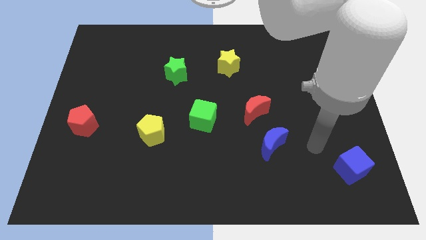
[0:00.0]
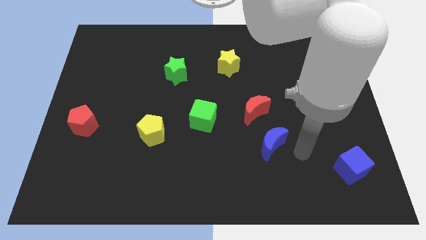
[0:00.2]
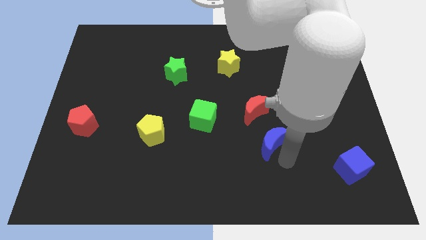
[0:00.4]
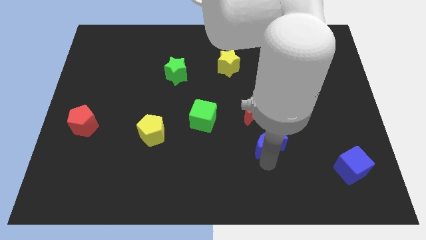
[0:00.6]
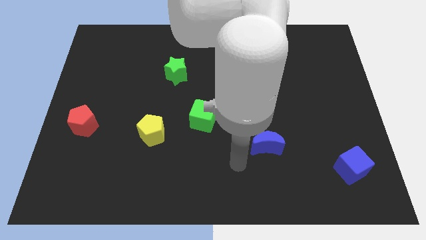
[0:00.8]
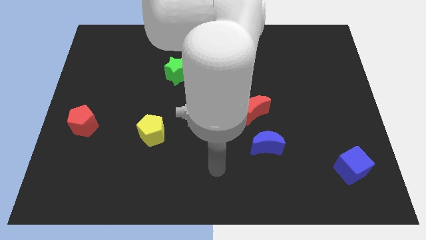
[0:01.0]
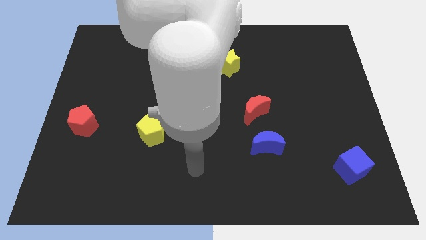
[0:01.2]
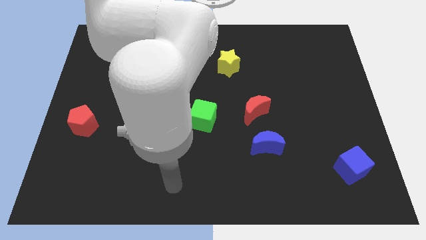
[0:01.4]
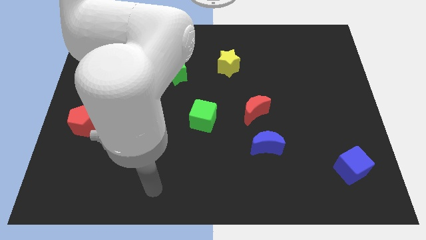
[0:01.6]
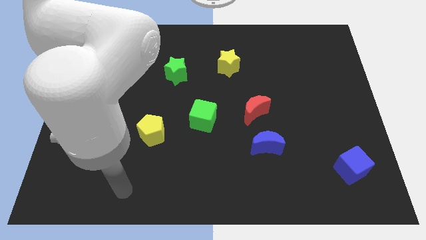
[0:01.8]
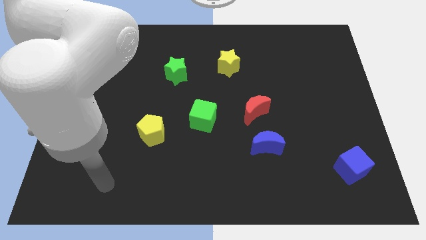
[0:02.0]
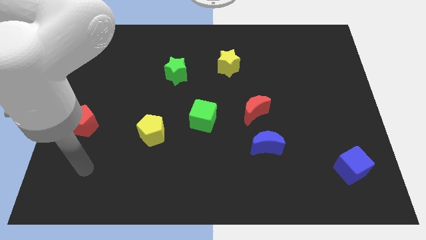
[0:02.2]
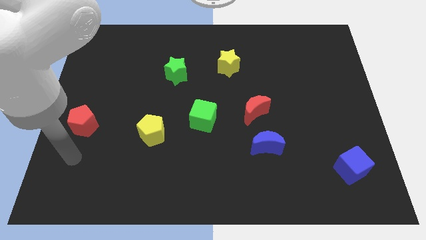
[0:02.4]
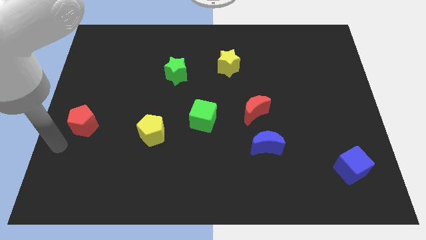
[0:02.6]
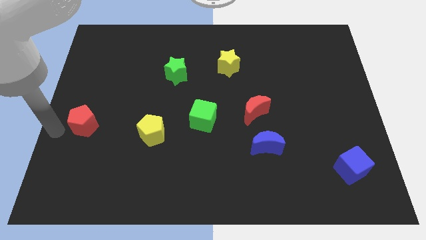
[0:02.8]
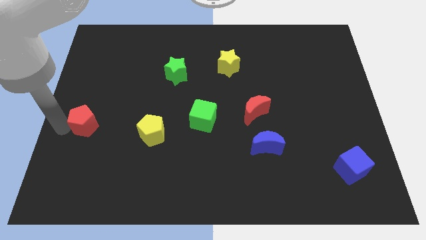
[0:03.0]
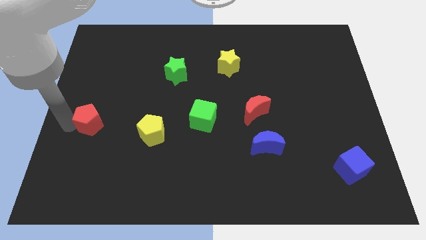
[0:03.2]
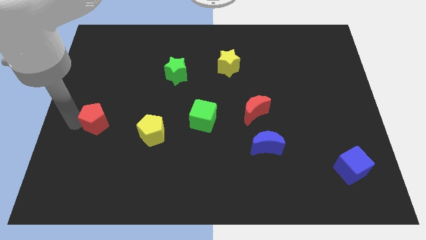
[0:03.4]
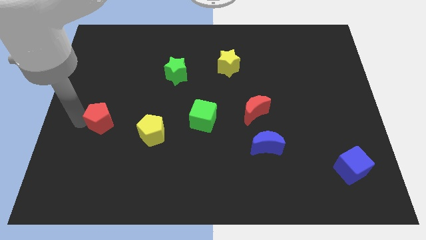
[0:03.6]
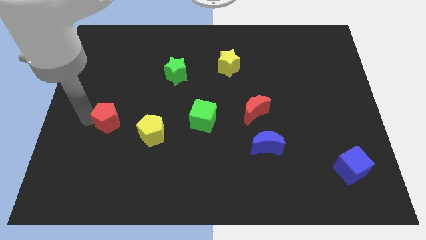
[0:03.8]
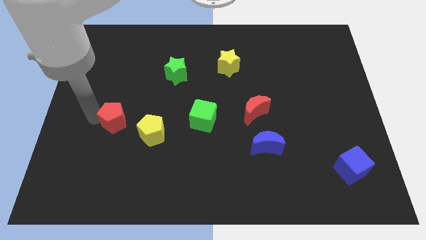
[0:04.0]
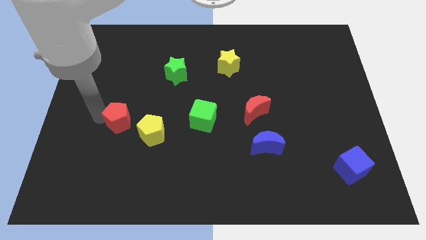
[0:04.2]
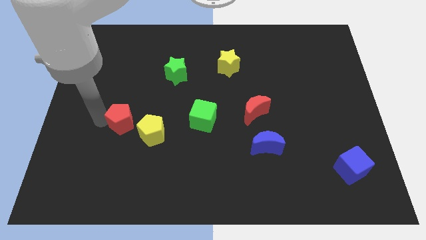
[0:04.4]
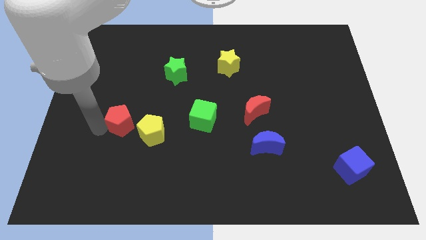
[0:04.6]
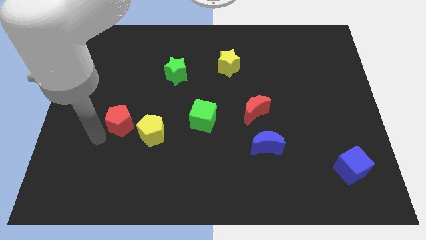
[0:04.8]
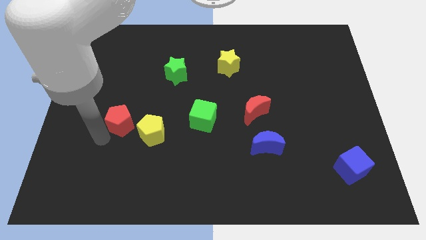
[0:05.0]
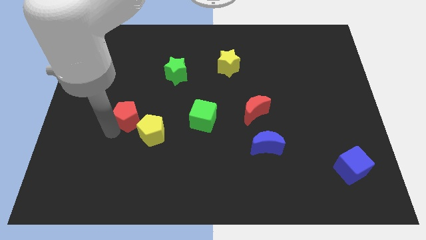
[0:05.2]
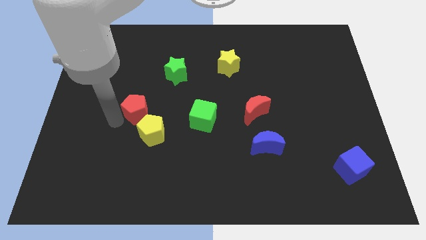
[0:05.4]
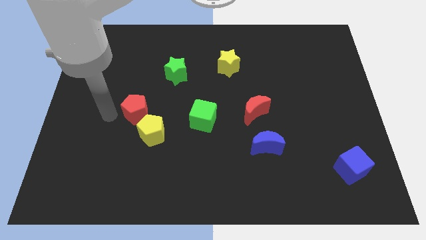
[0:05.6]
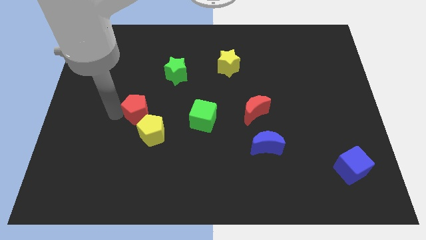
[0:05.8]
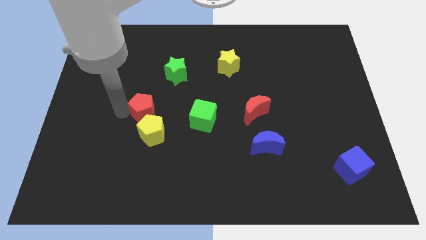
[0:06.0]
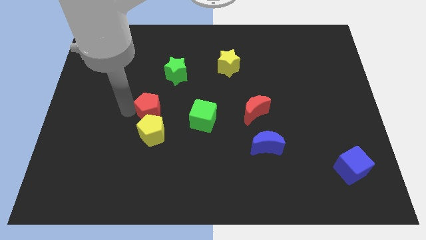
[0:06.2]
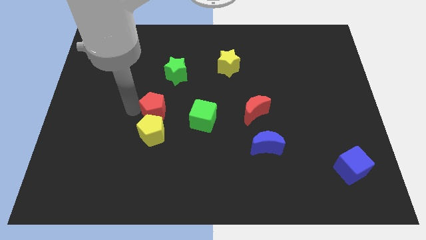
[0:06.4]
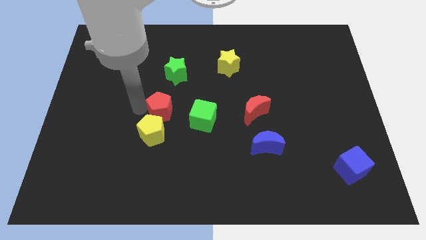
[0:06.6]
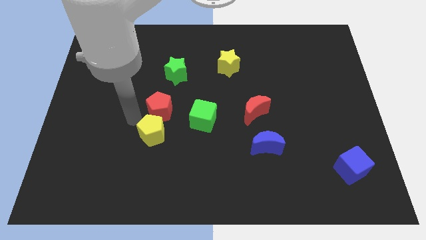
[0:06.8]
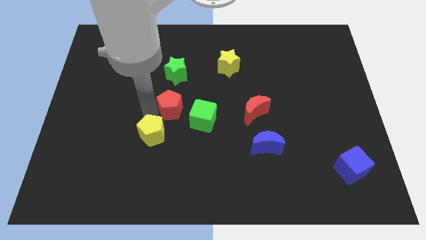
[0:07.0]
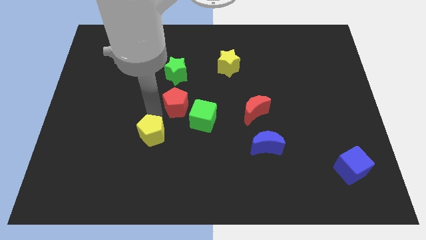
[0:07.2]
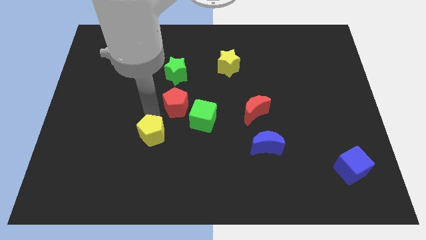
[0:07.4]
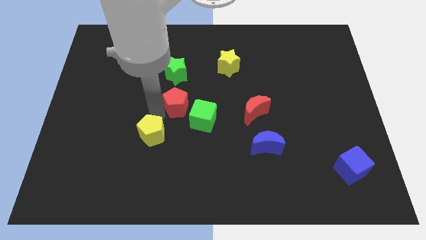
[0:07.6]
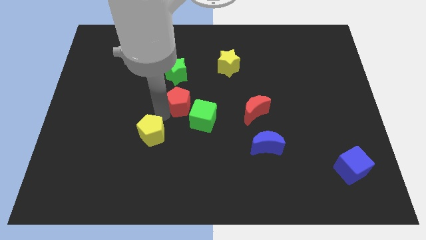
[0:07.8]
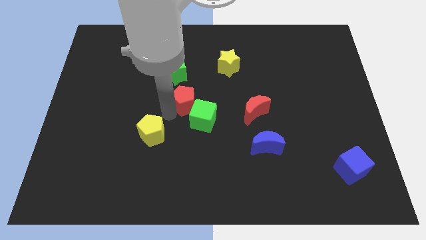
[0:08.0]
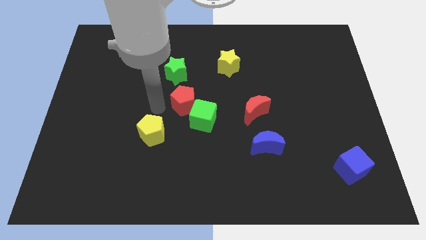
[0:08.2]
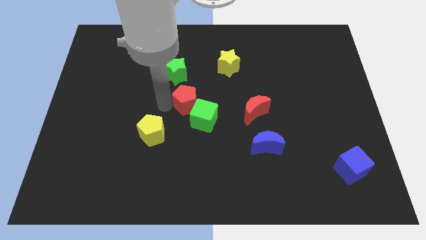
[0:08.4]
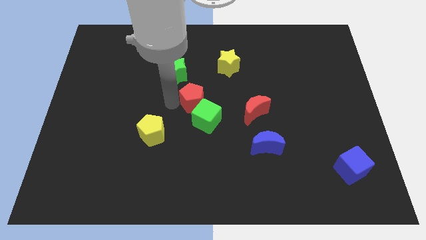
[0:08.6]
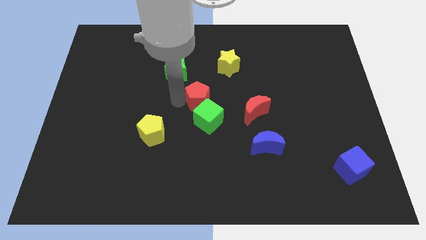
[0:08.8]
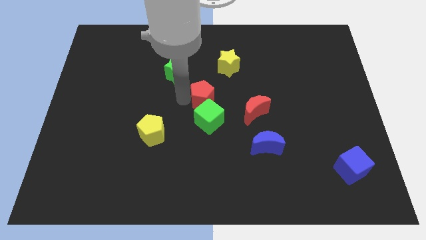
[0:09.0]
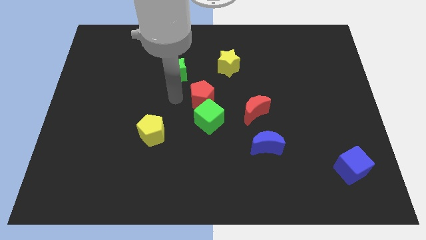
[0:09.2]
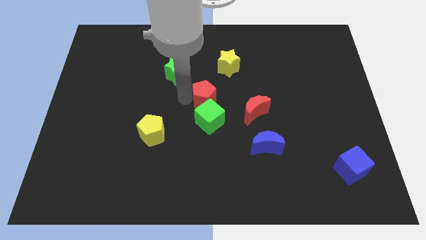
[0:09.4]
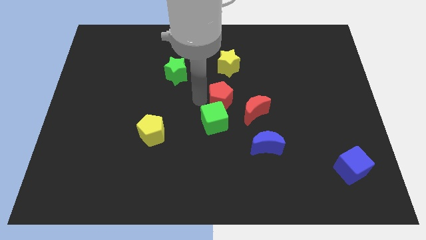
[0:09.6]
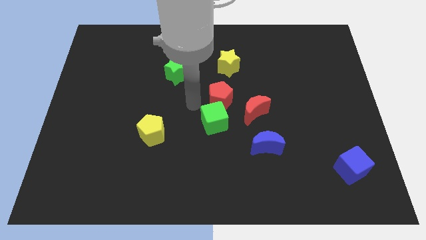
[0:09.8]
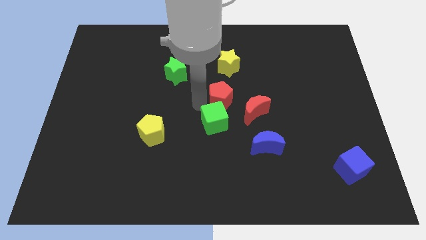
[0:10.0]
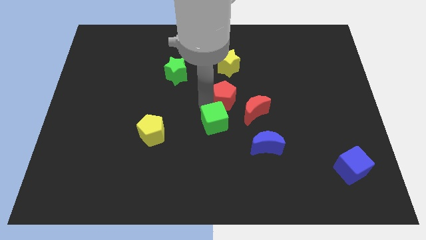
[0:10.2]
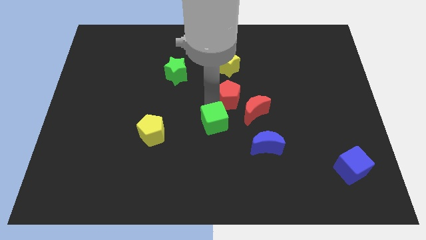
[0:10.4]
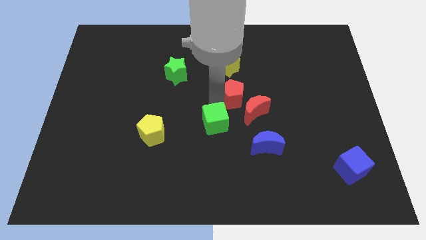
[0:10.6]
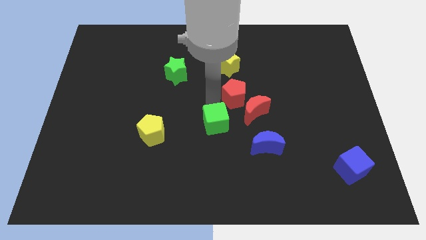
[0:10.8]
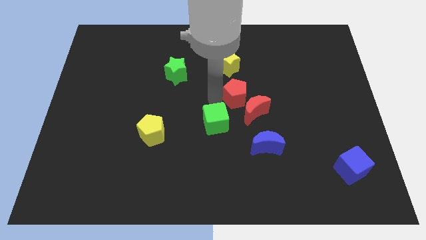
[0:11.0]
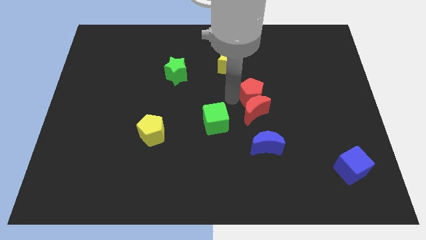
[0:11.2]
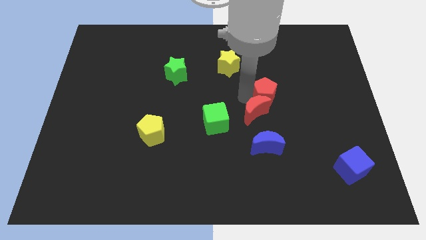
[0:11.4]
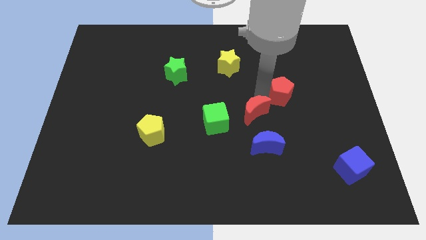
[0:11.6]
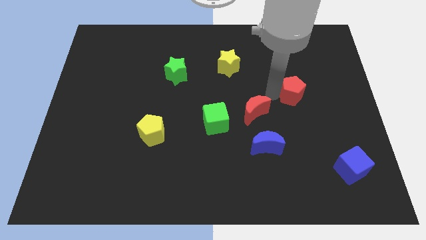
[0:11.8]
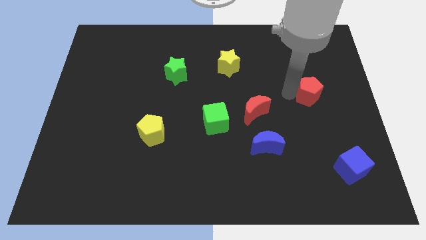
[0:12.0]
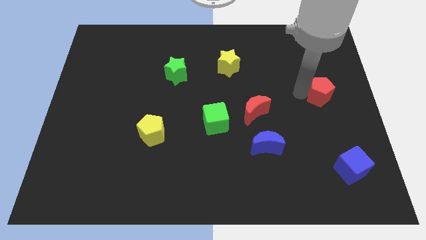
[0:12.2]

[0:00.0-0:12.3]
move the red pentagon to the center right

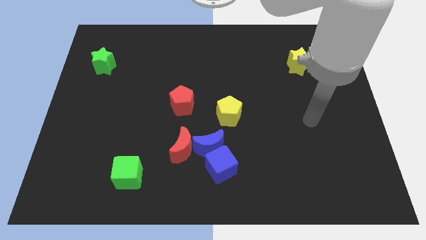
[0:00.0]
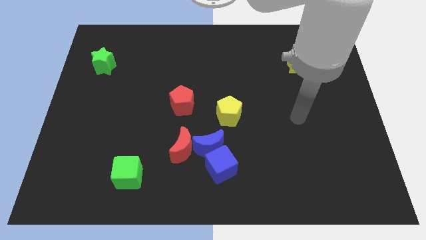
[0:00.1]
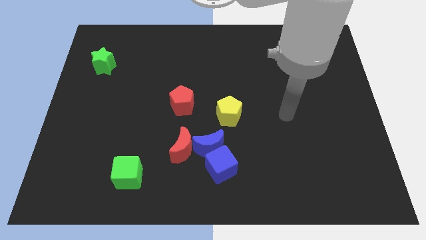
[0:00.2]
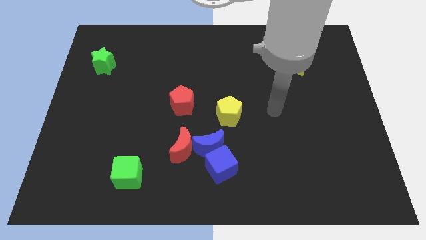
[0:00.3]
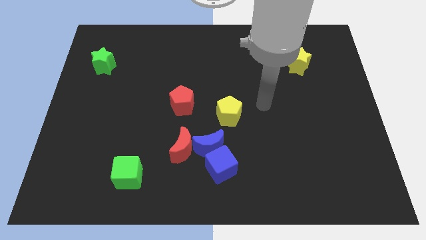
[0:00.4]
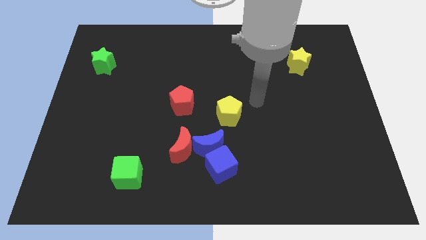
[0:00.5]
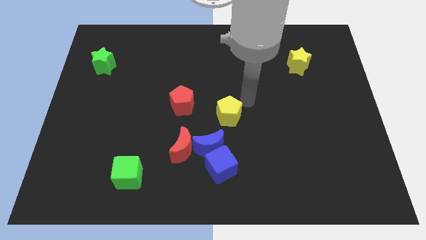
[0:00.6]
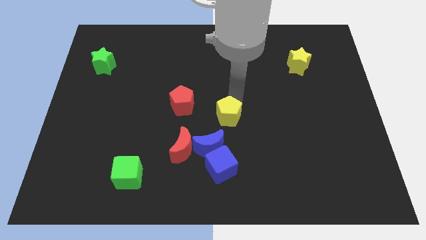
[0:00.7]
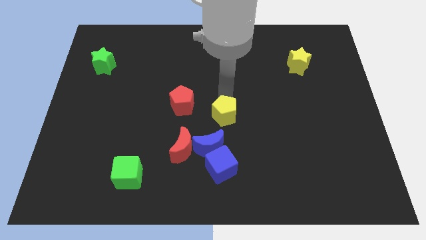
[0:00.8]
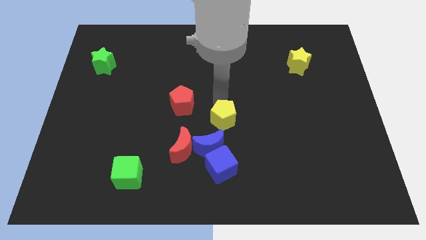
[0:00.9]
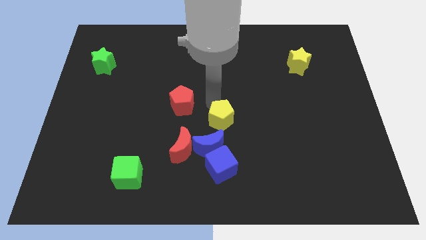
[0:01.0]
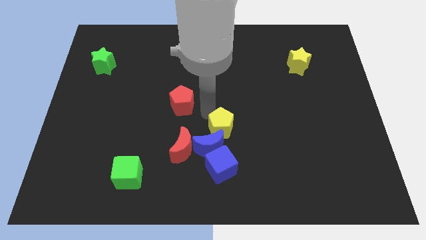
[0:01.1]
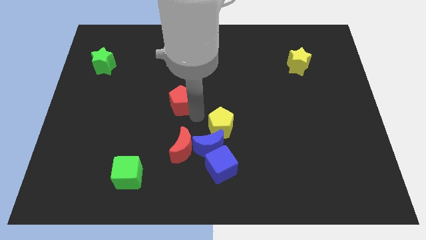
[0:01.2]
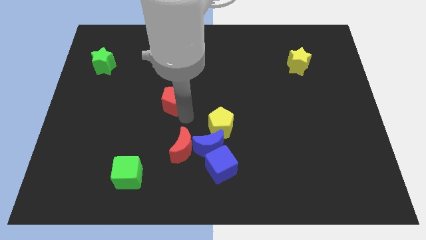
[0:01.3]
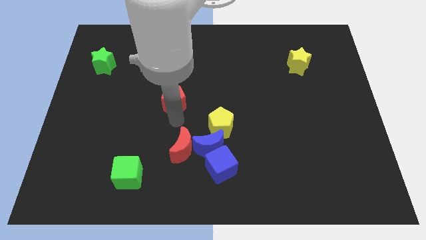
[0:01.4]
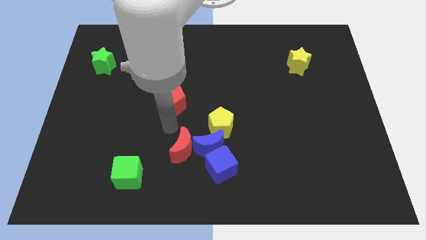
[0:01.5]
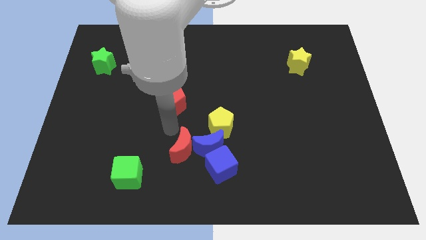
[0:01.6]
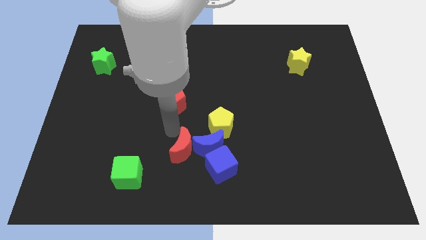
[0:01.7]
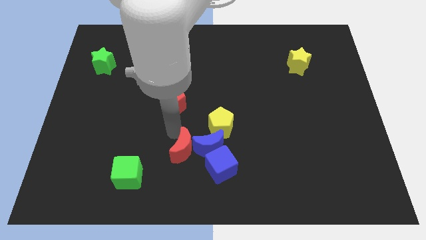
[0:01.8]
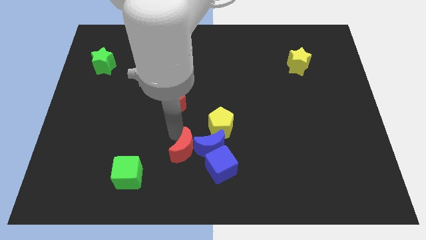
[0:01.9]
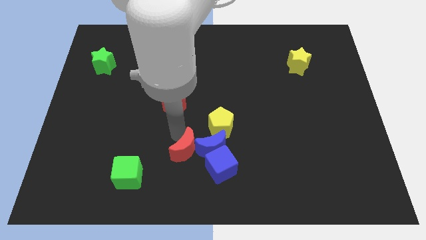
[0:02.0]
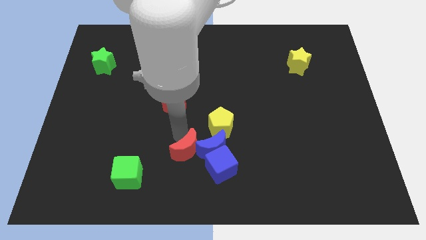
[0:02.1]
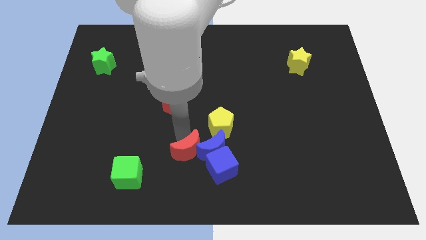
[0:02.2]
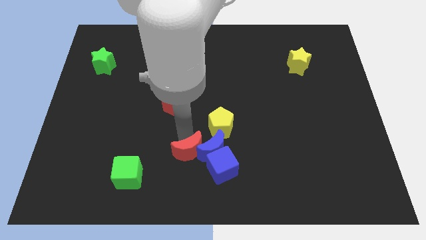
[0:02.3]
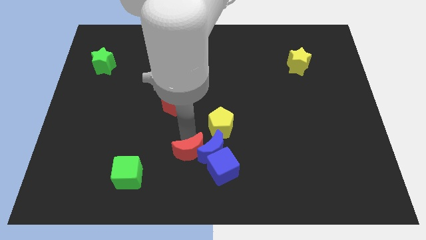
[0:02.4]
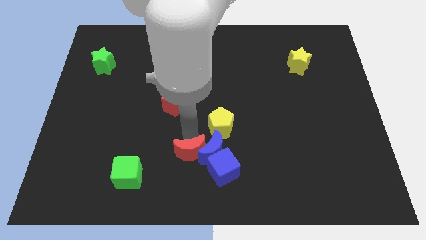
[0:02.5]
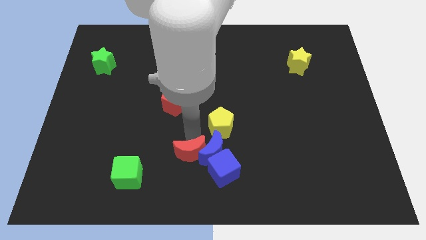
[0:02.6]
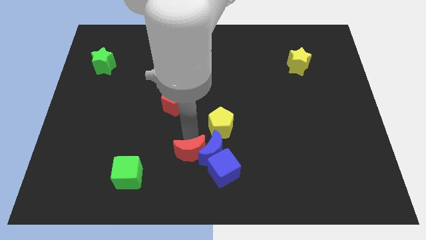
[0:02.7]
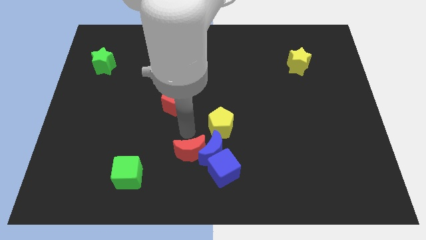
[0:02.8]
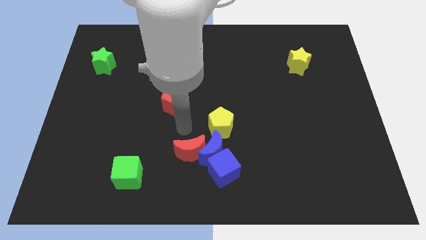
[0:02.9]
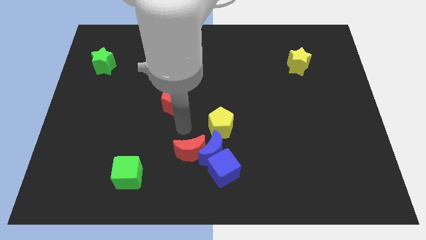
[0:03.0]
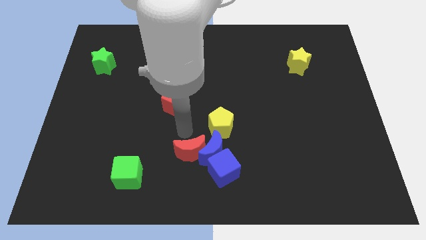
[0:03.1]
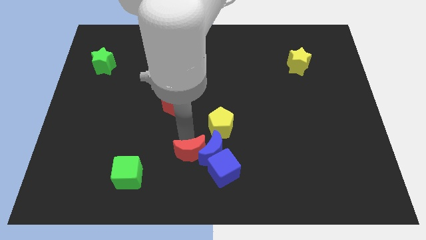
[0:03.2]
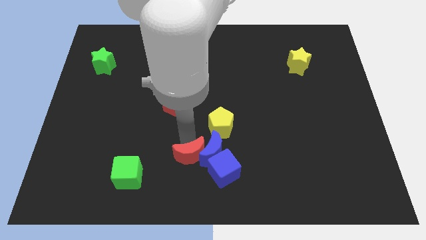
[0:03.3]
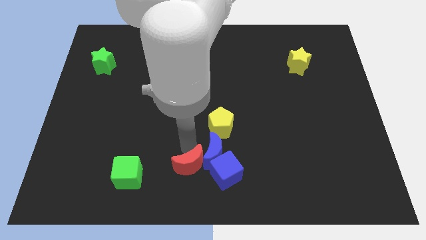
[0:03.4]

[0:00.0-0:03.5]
push the red moon to the bottom side
